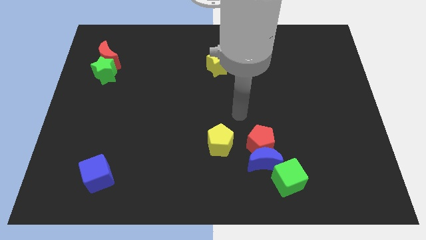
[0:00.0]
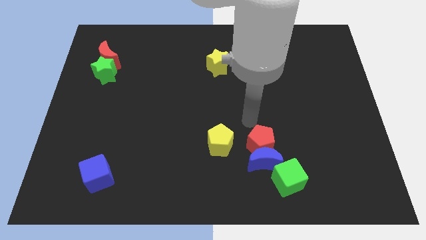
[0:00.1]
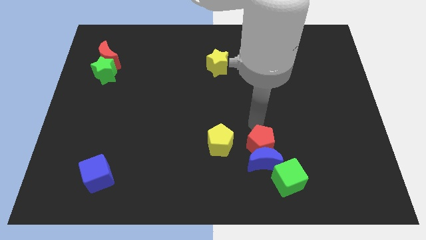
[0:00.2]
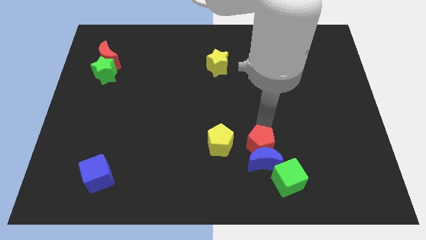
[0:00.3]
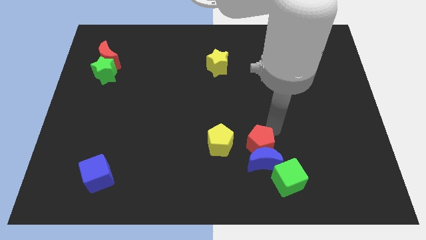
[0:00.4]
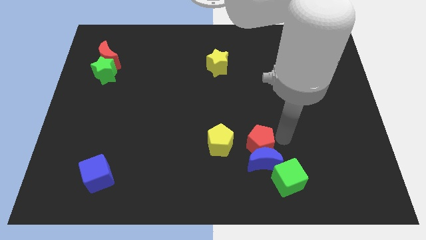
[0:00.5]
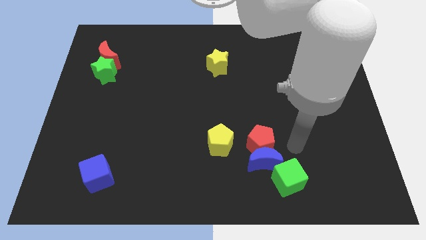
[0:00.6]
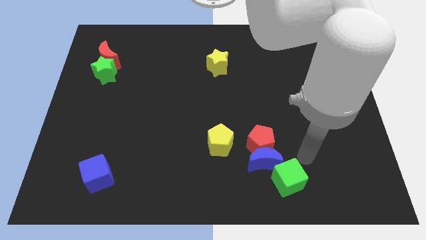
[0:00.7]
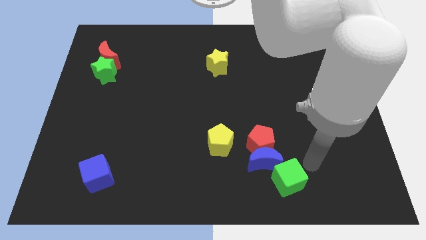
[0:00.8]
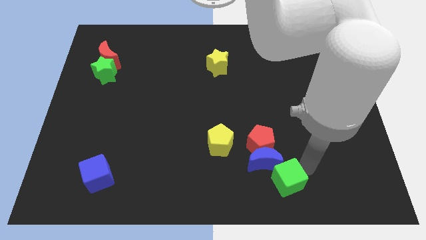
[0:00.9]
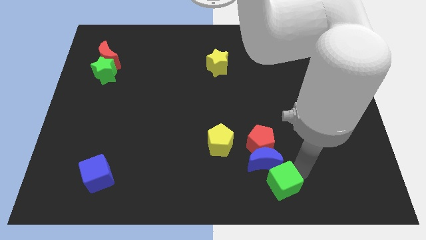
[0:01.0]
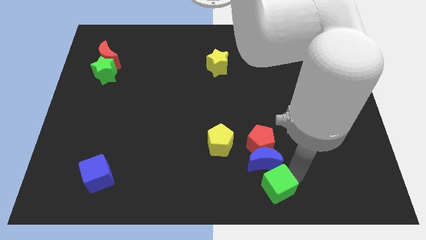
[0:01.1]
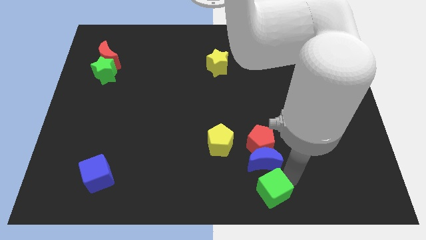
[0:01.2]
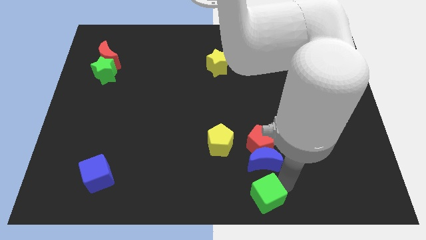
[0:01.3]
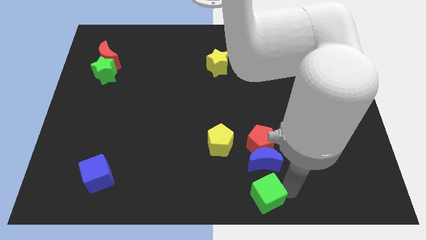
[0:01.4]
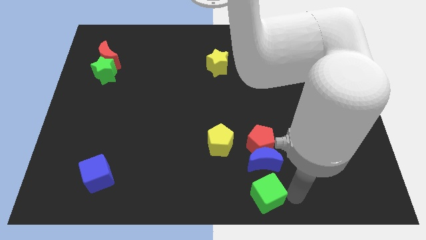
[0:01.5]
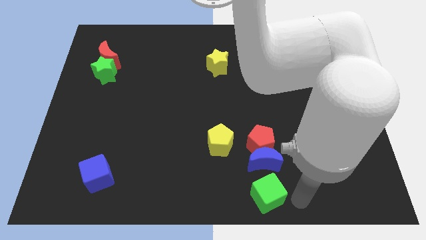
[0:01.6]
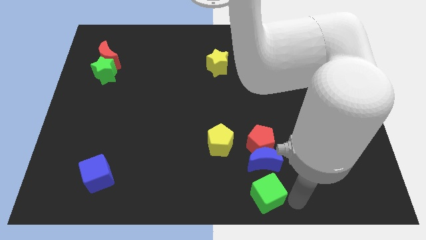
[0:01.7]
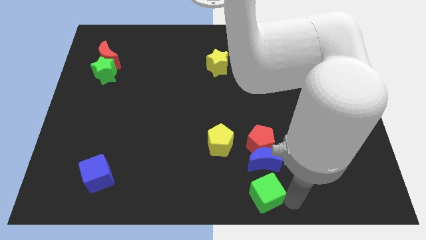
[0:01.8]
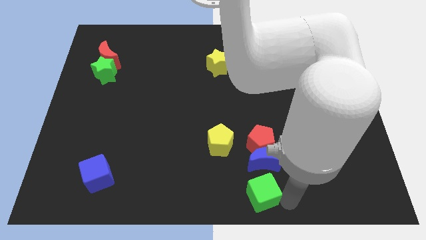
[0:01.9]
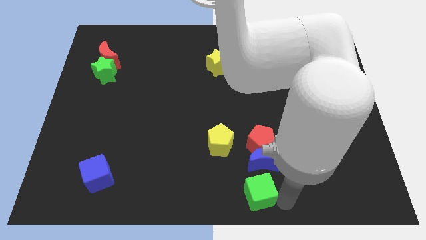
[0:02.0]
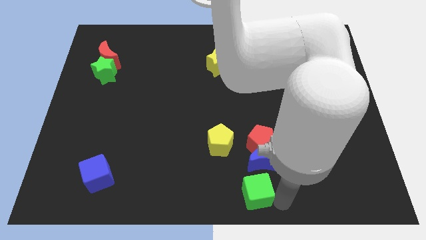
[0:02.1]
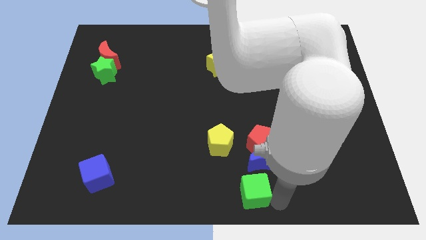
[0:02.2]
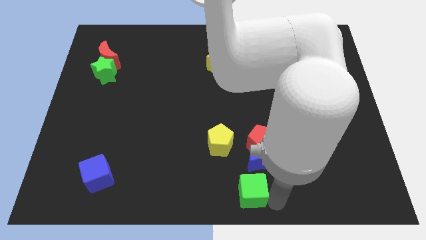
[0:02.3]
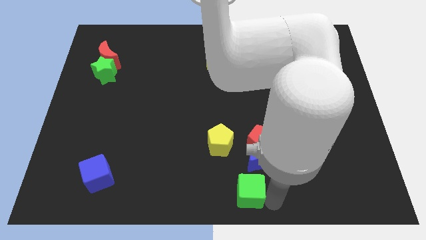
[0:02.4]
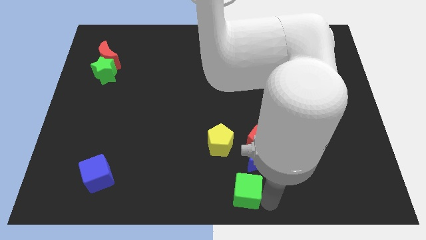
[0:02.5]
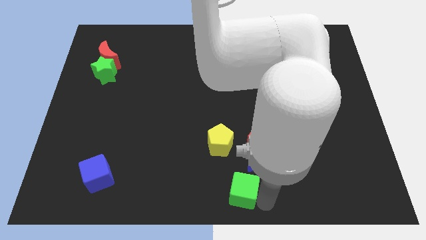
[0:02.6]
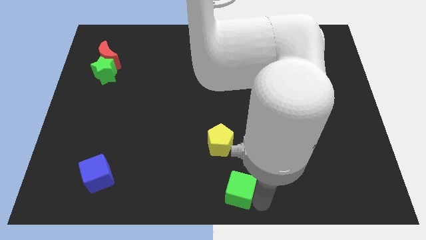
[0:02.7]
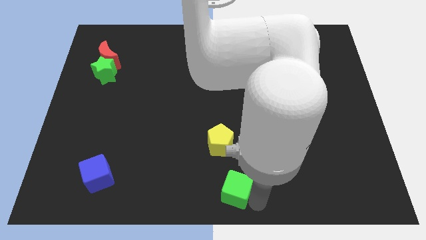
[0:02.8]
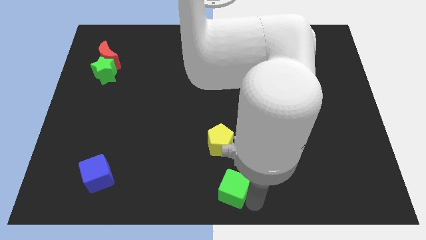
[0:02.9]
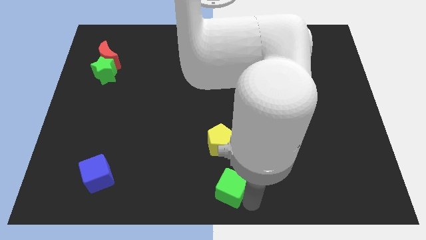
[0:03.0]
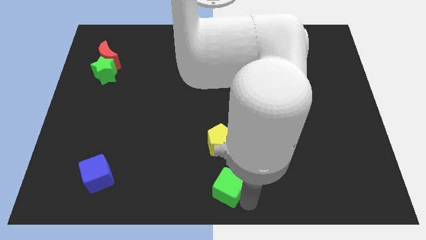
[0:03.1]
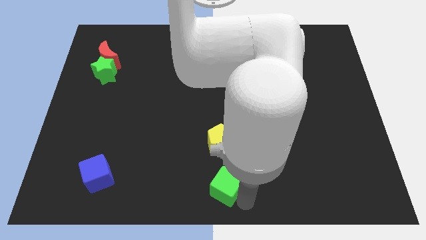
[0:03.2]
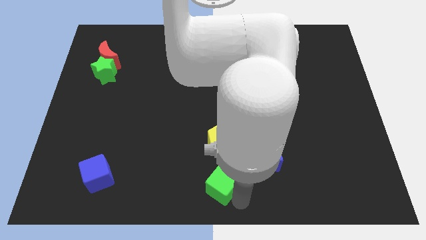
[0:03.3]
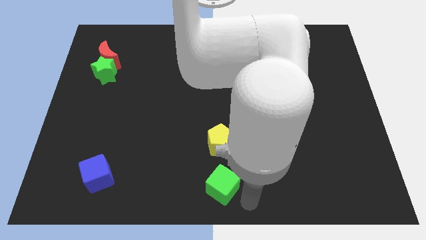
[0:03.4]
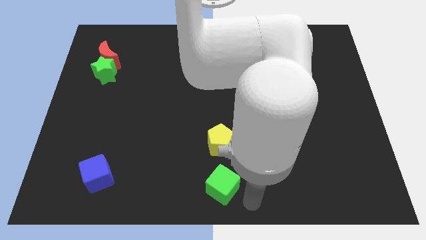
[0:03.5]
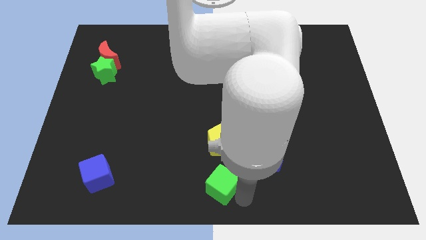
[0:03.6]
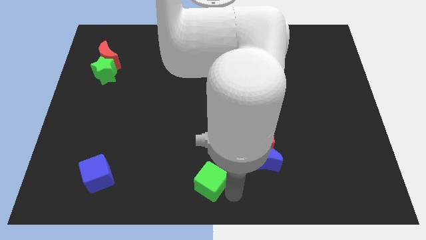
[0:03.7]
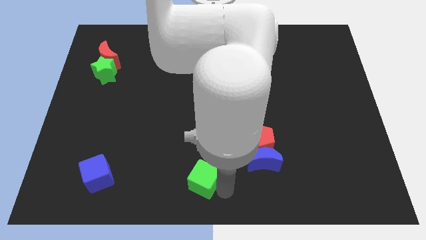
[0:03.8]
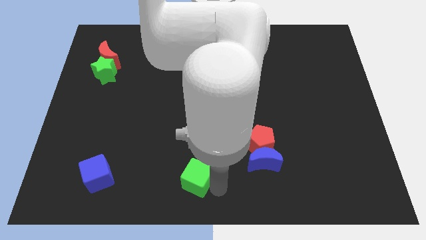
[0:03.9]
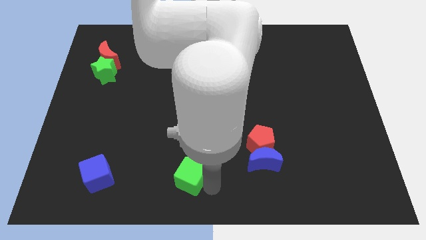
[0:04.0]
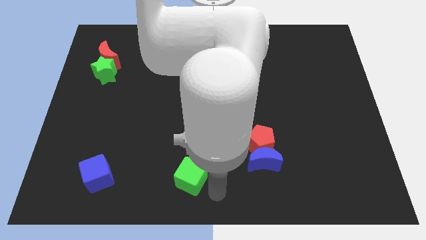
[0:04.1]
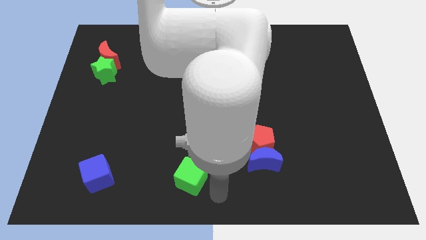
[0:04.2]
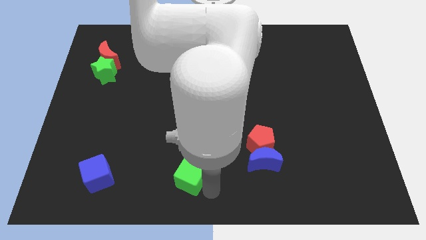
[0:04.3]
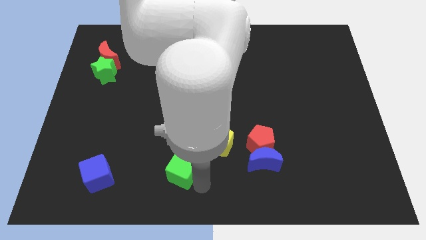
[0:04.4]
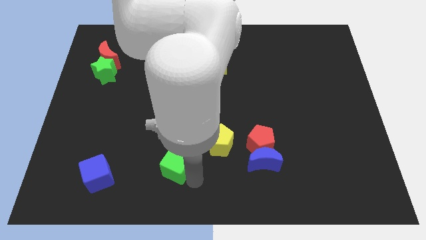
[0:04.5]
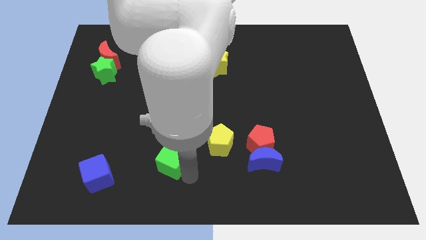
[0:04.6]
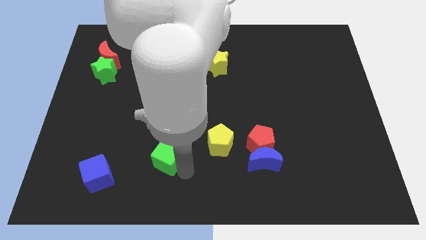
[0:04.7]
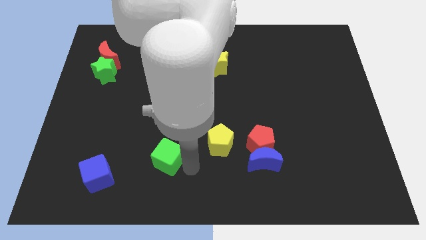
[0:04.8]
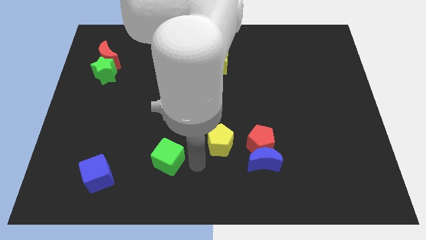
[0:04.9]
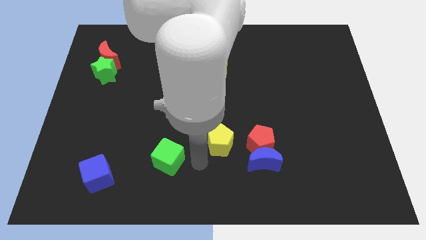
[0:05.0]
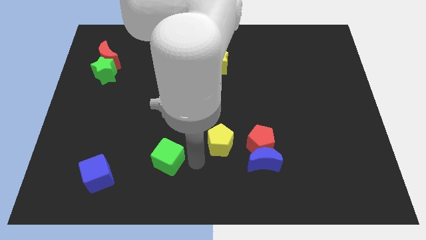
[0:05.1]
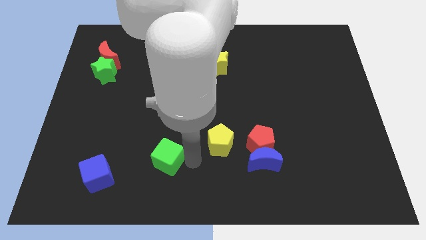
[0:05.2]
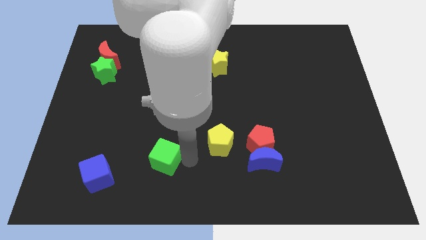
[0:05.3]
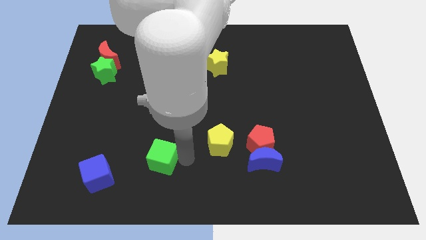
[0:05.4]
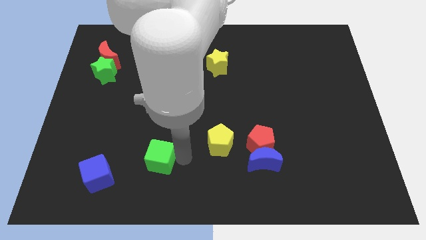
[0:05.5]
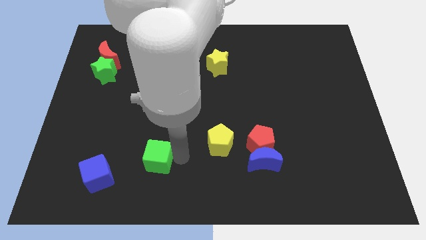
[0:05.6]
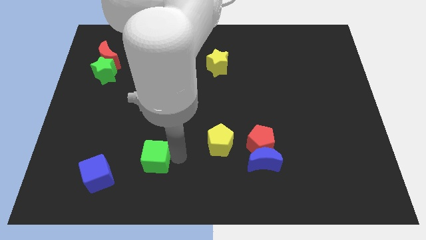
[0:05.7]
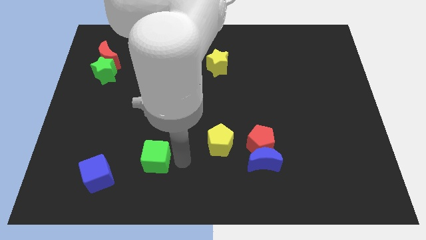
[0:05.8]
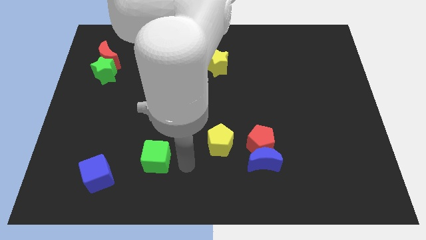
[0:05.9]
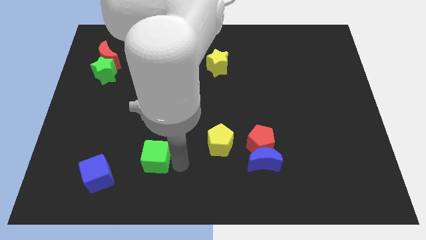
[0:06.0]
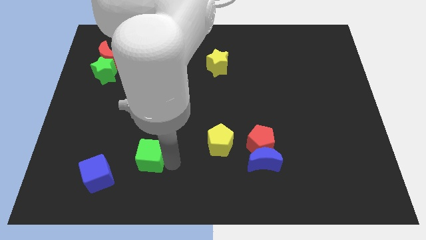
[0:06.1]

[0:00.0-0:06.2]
move the green cube to the top right side of the blue cube

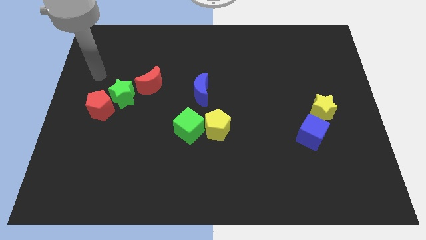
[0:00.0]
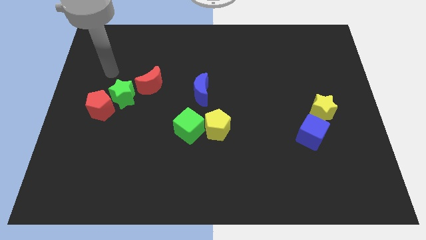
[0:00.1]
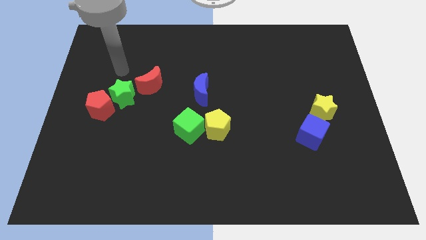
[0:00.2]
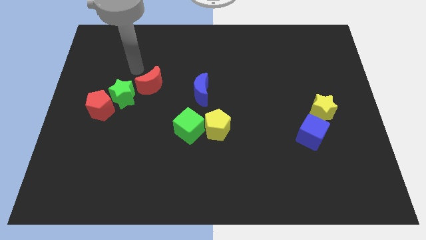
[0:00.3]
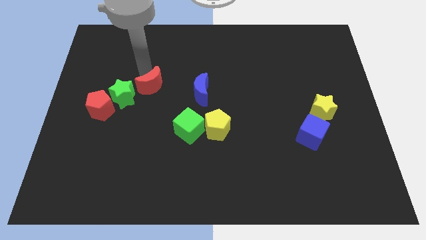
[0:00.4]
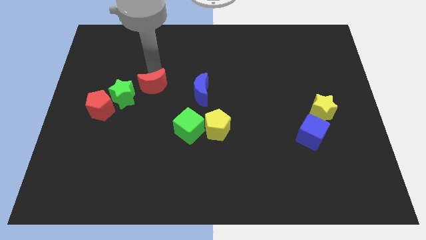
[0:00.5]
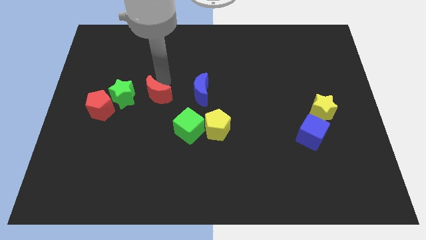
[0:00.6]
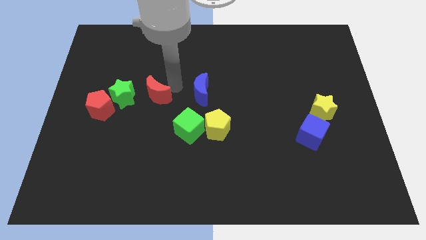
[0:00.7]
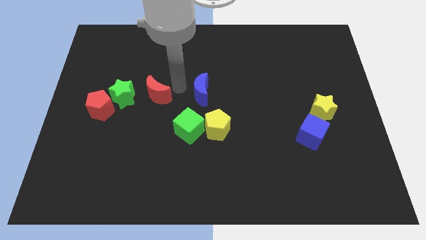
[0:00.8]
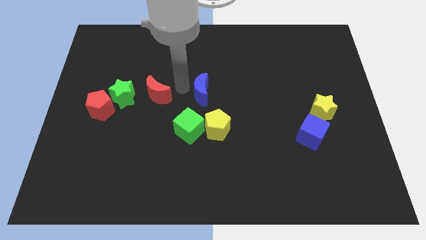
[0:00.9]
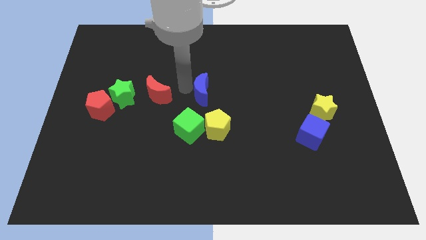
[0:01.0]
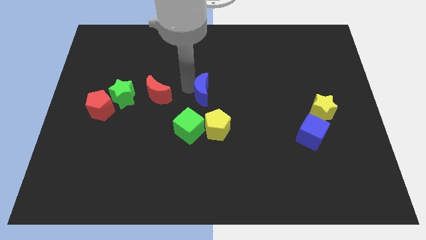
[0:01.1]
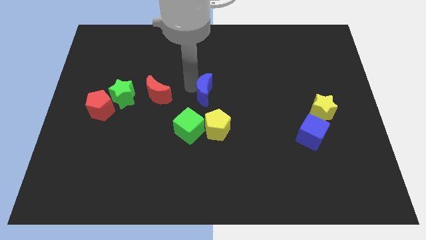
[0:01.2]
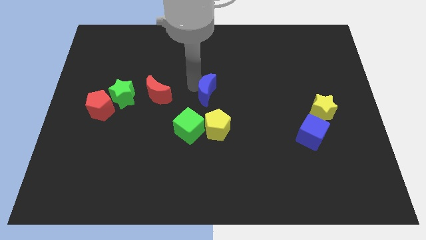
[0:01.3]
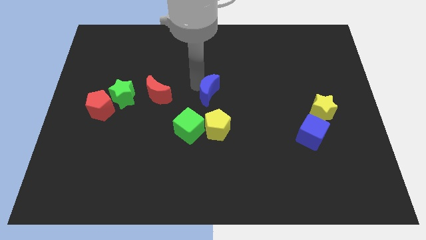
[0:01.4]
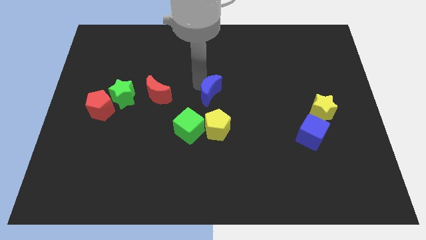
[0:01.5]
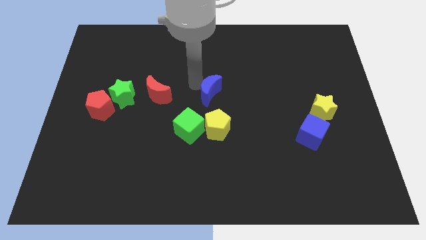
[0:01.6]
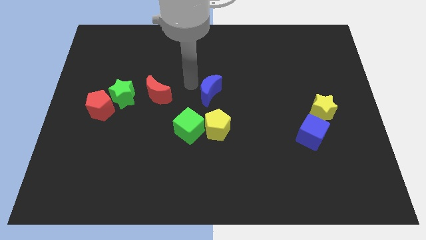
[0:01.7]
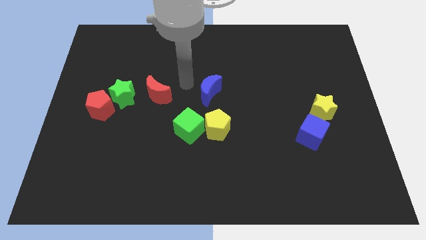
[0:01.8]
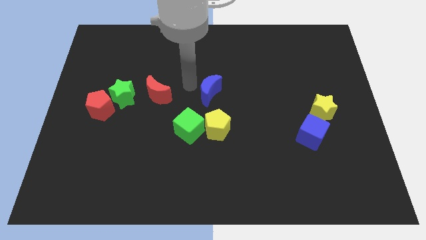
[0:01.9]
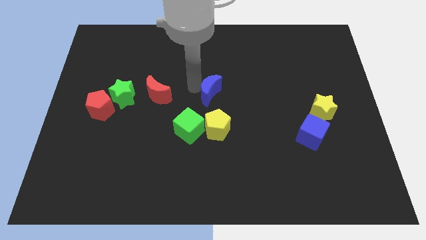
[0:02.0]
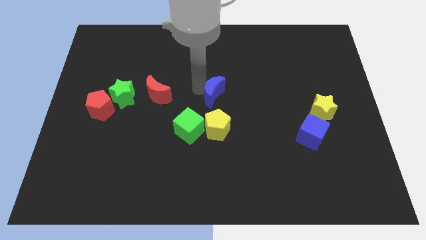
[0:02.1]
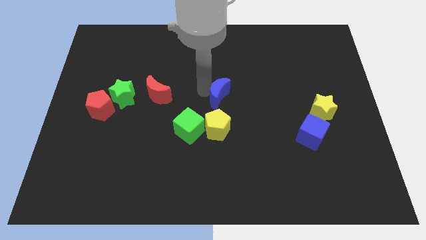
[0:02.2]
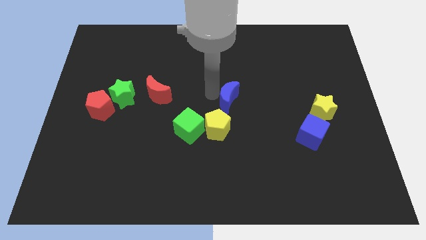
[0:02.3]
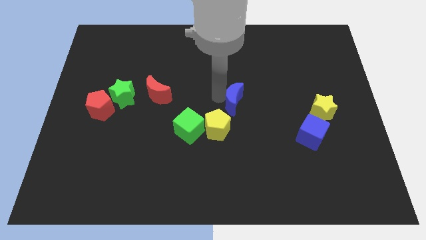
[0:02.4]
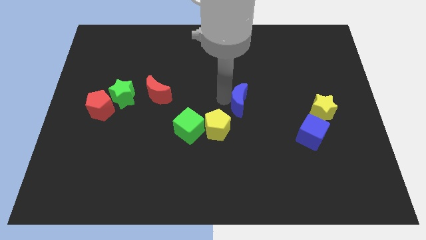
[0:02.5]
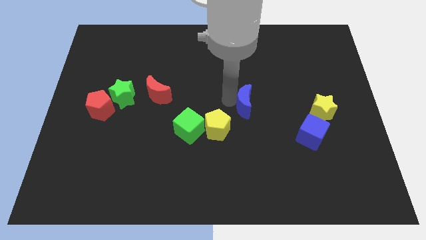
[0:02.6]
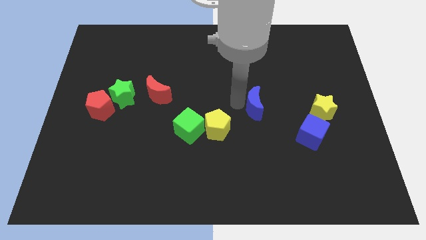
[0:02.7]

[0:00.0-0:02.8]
slide the blue moon to the left of the yellow star
